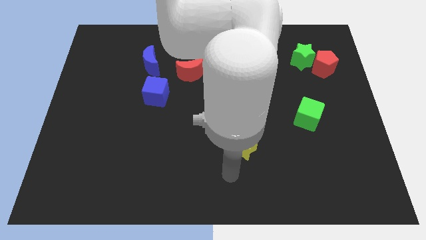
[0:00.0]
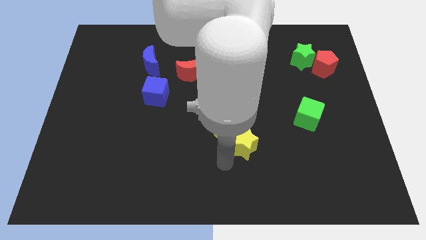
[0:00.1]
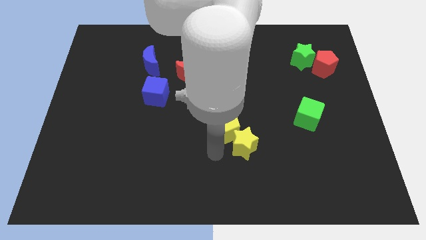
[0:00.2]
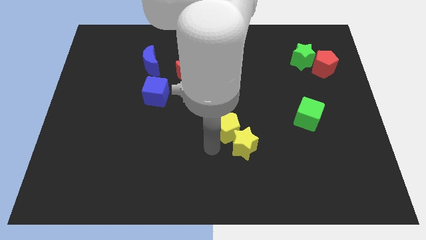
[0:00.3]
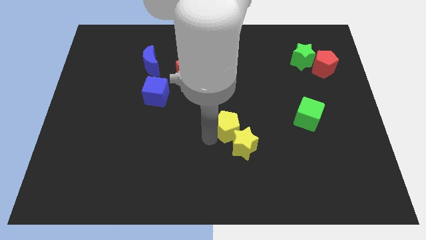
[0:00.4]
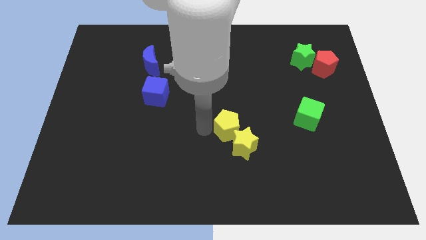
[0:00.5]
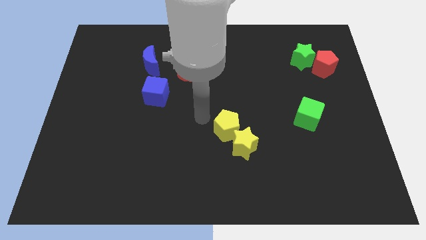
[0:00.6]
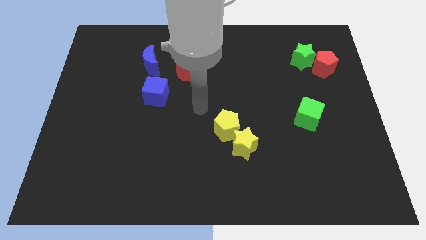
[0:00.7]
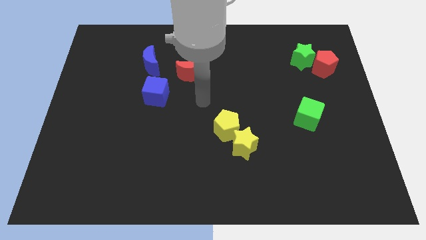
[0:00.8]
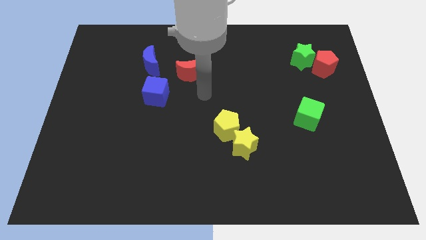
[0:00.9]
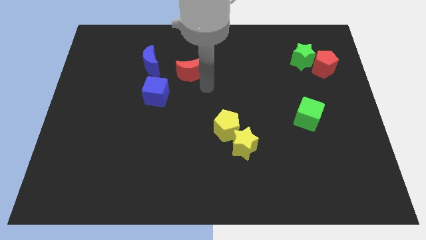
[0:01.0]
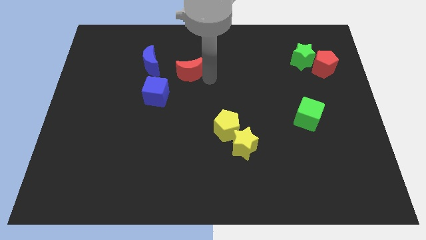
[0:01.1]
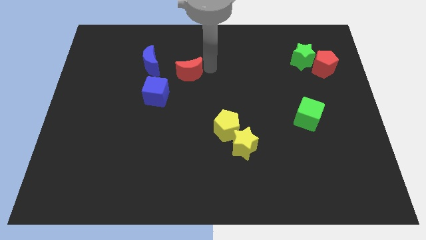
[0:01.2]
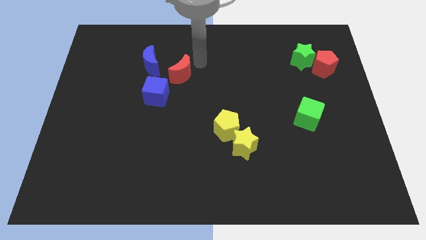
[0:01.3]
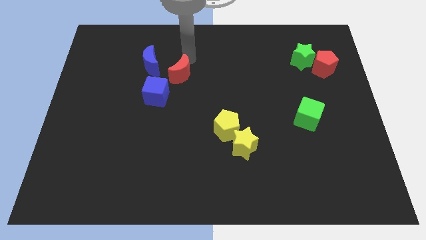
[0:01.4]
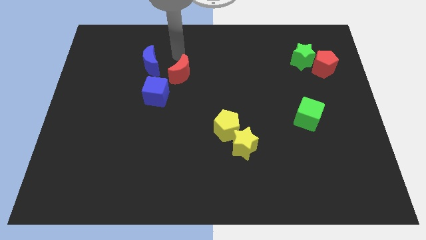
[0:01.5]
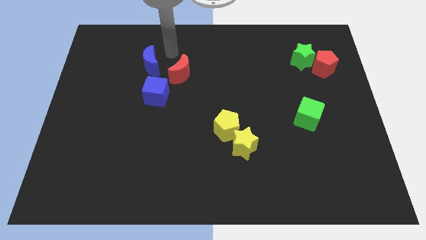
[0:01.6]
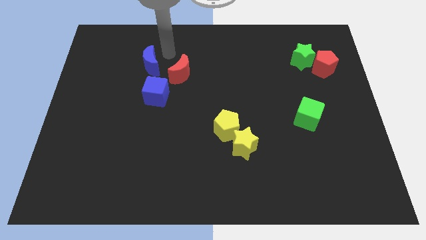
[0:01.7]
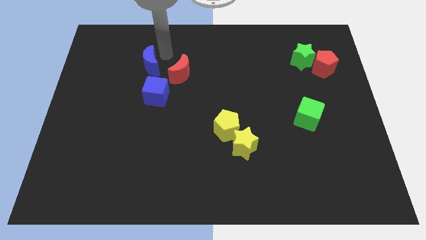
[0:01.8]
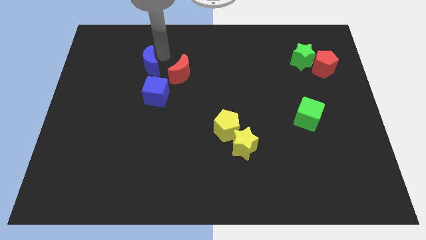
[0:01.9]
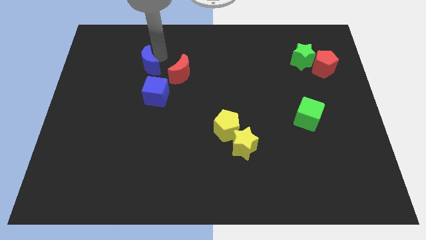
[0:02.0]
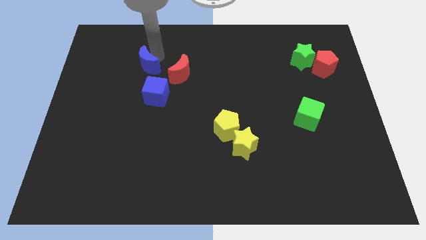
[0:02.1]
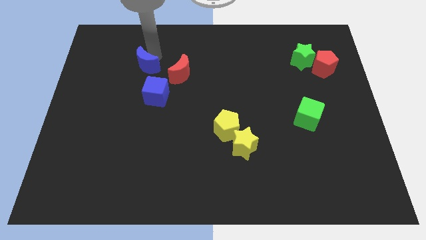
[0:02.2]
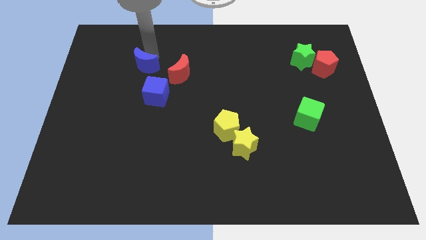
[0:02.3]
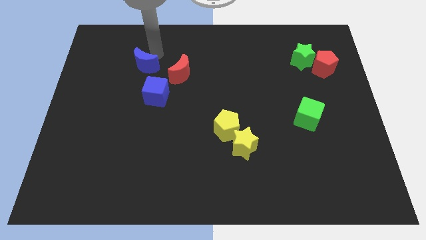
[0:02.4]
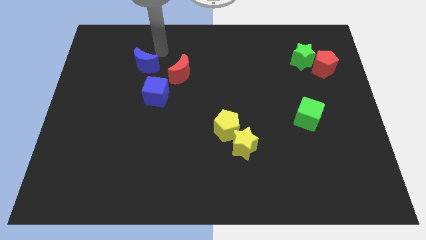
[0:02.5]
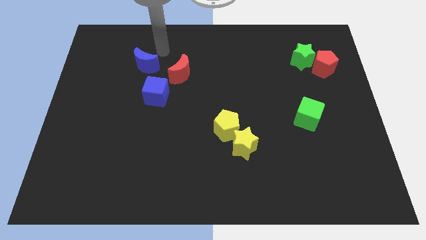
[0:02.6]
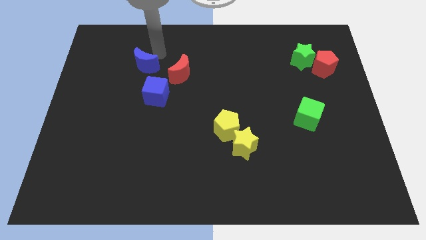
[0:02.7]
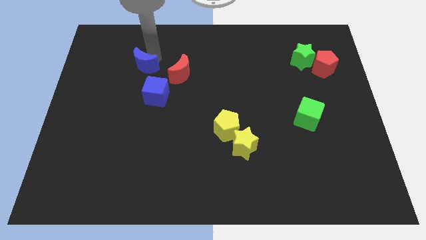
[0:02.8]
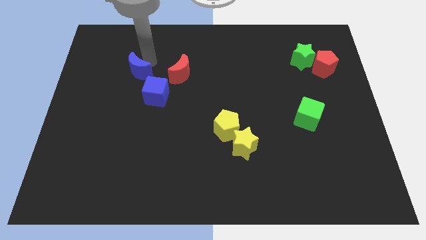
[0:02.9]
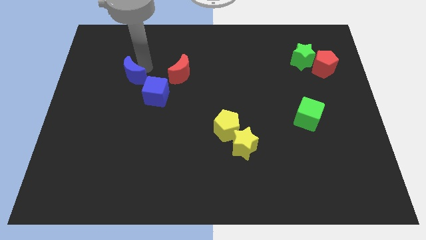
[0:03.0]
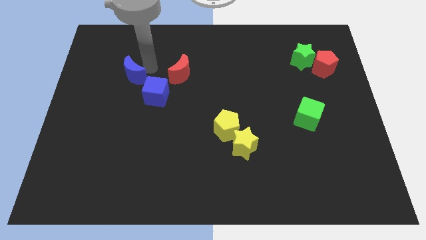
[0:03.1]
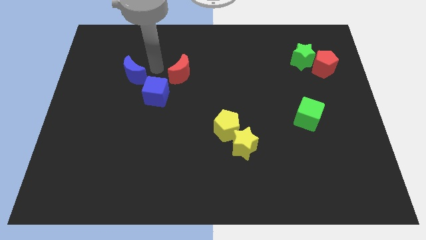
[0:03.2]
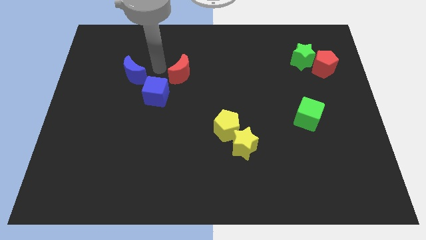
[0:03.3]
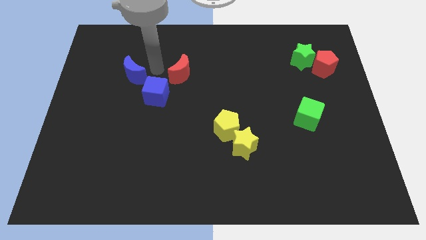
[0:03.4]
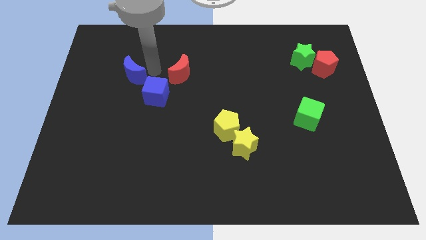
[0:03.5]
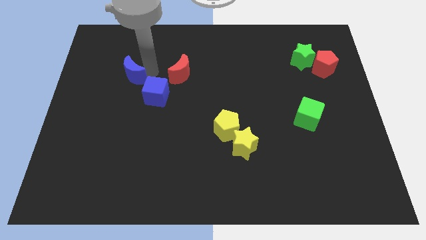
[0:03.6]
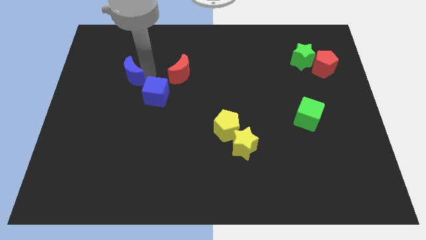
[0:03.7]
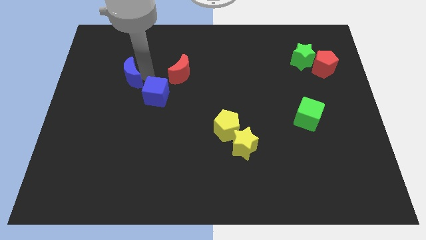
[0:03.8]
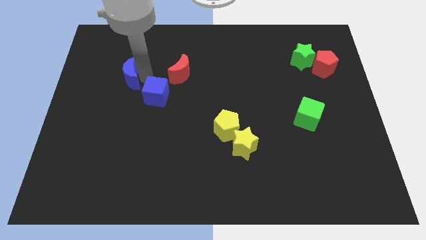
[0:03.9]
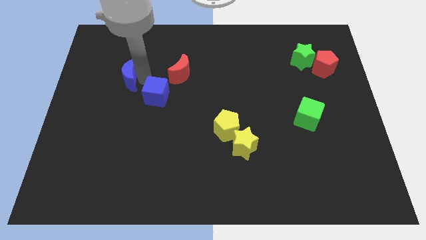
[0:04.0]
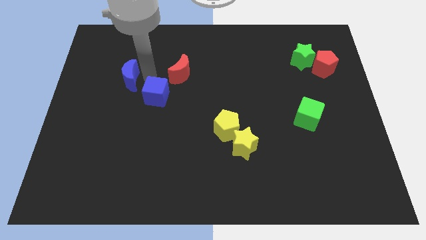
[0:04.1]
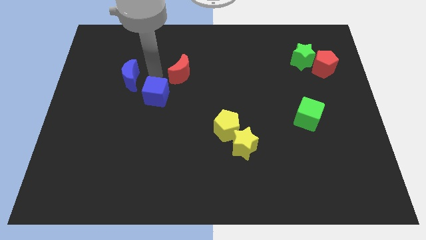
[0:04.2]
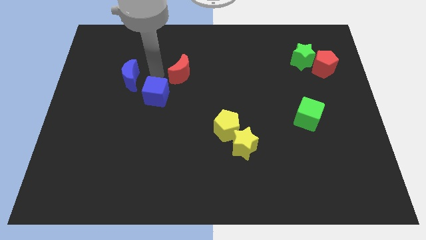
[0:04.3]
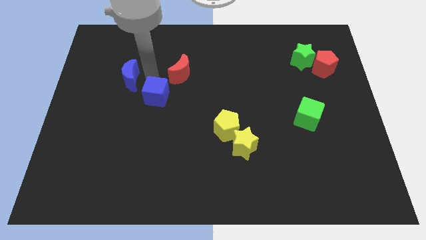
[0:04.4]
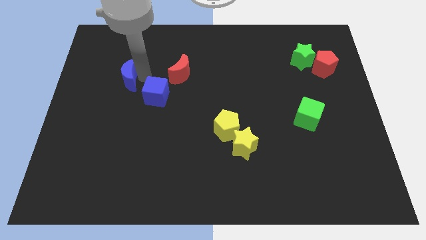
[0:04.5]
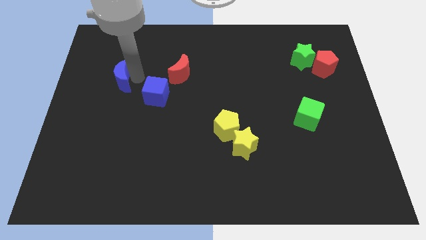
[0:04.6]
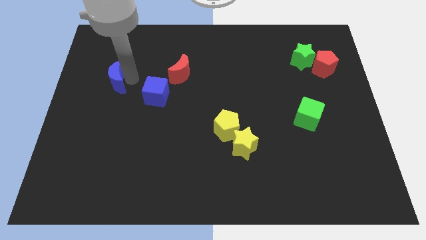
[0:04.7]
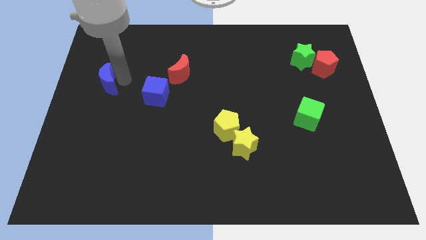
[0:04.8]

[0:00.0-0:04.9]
put the blue moon to the left side of the board

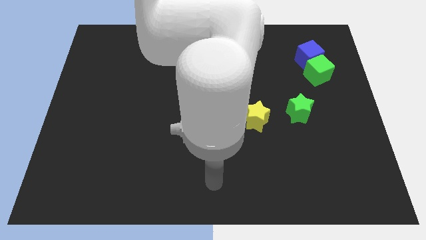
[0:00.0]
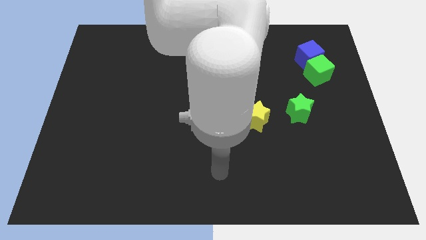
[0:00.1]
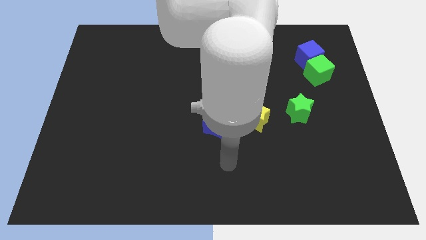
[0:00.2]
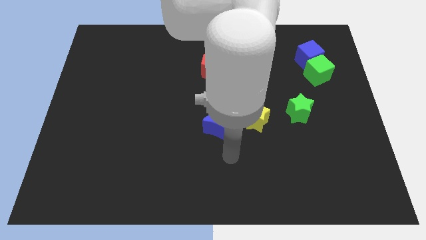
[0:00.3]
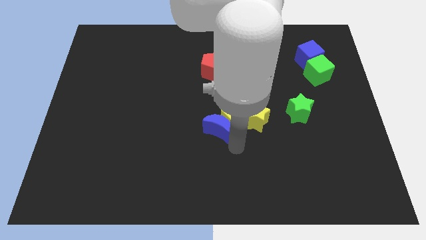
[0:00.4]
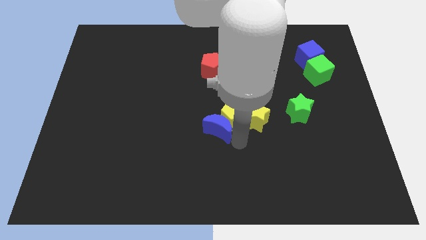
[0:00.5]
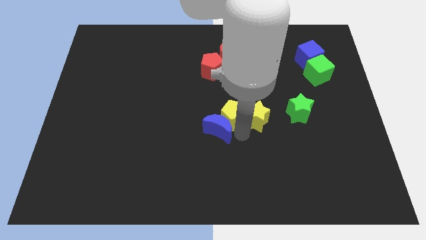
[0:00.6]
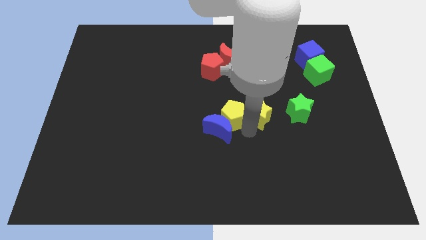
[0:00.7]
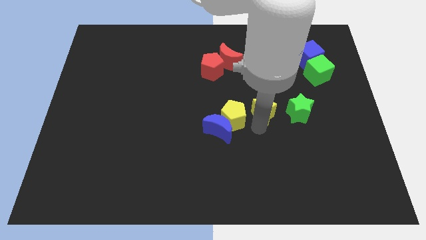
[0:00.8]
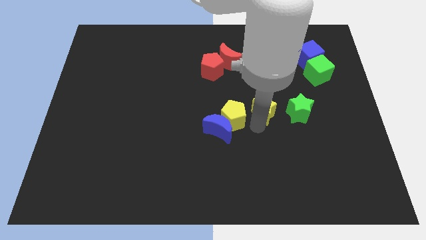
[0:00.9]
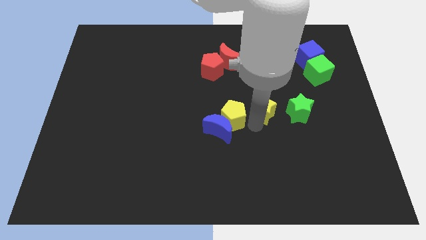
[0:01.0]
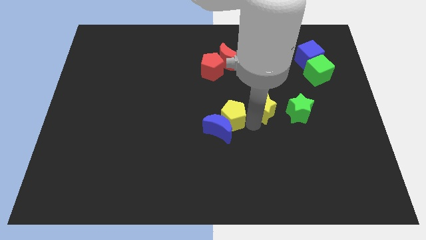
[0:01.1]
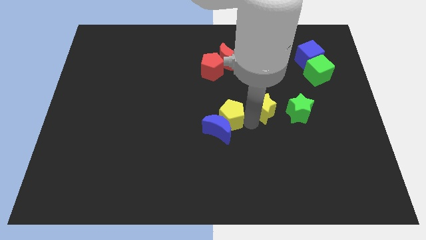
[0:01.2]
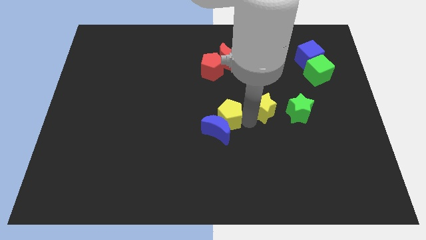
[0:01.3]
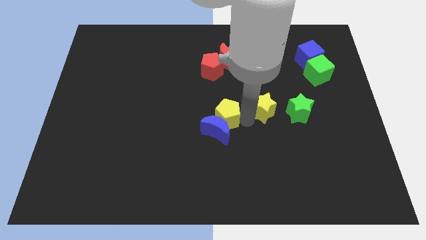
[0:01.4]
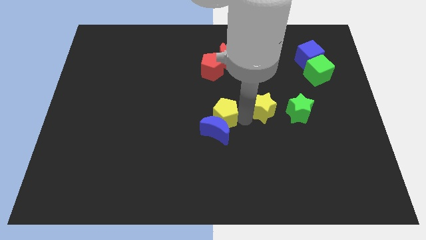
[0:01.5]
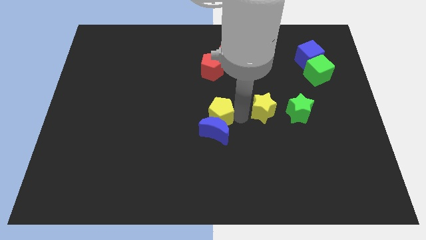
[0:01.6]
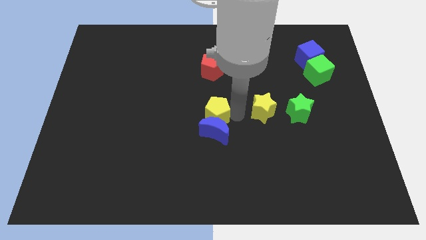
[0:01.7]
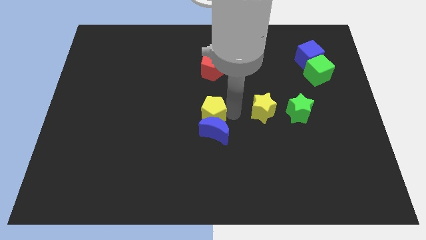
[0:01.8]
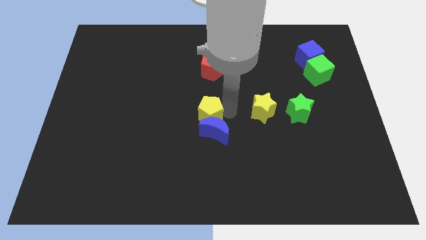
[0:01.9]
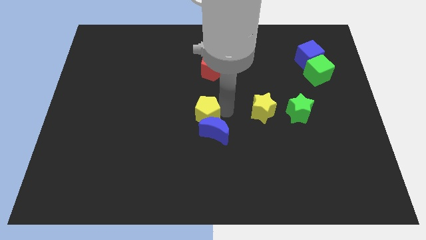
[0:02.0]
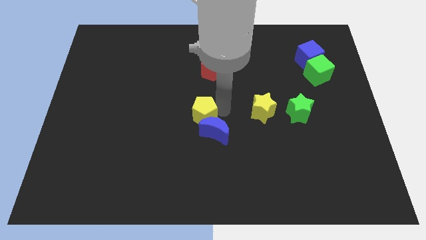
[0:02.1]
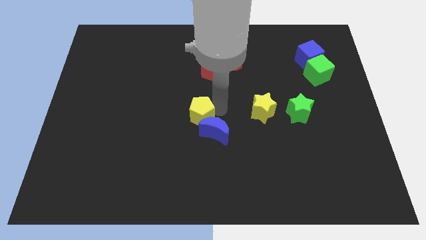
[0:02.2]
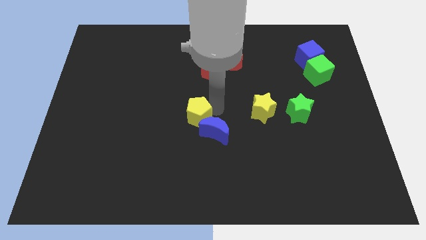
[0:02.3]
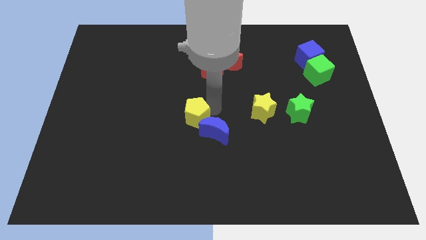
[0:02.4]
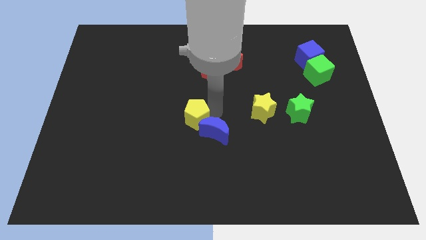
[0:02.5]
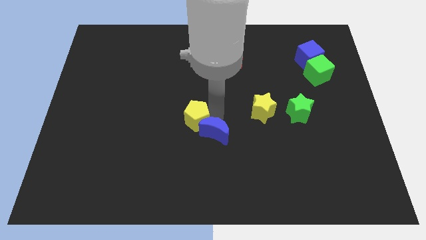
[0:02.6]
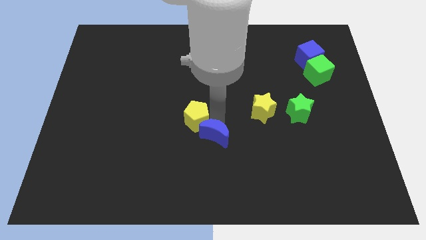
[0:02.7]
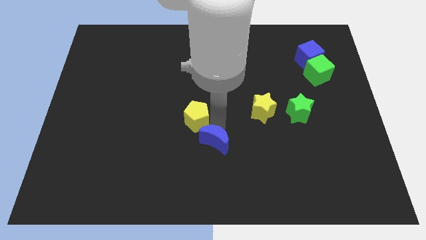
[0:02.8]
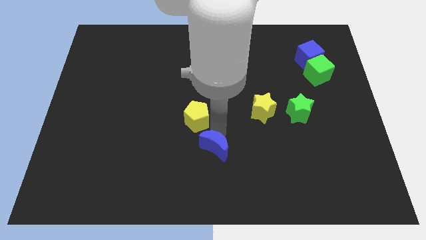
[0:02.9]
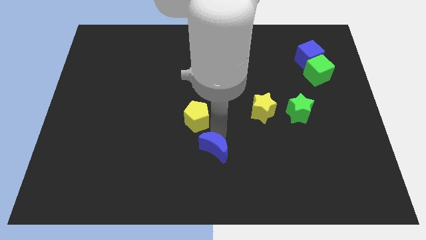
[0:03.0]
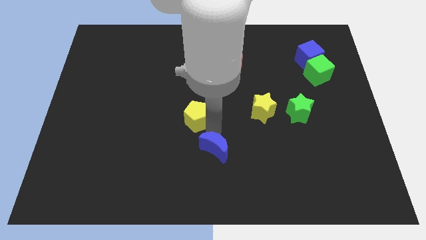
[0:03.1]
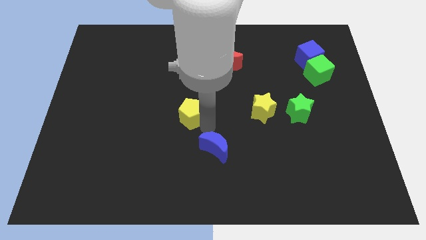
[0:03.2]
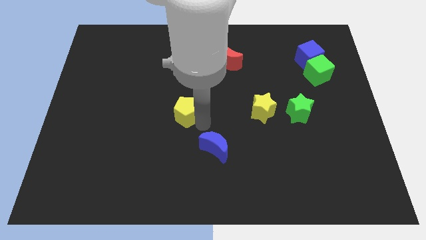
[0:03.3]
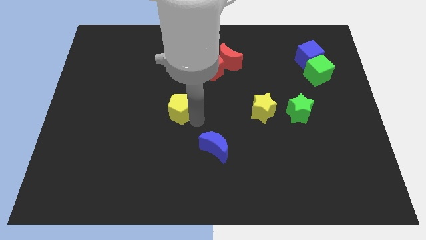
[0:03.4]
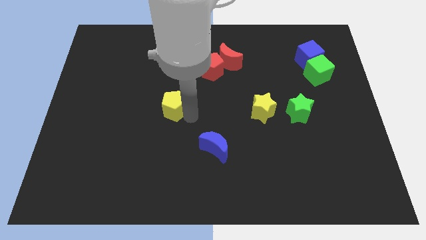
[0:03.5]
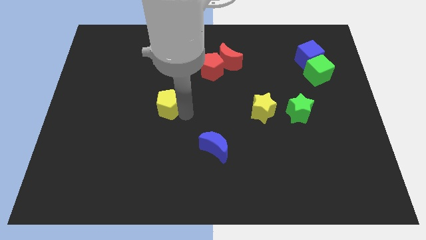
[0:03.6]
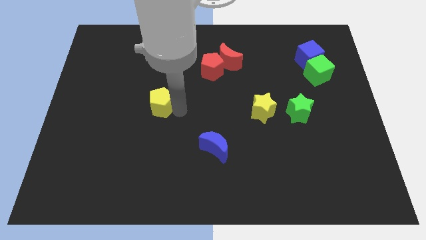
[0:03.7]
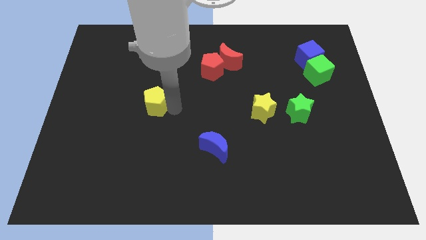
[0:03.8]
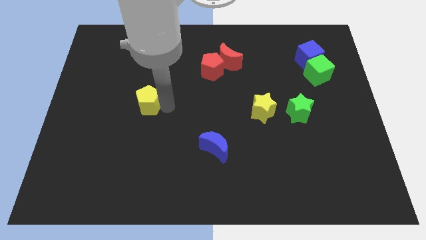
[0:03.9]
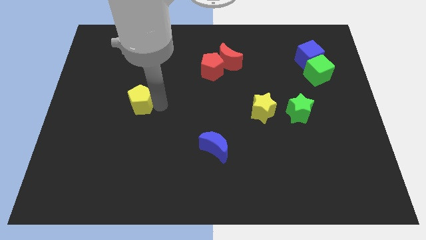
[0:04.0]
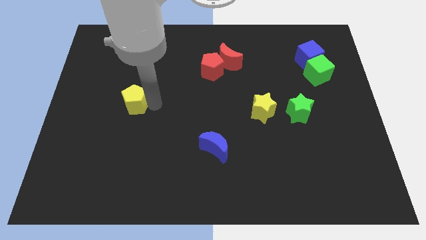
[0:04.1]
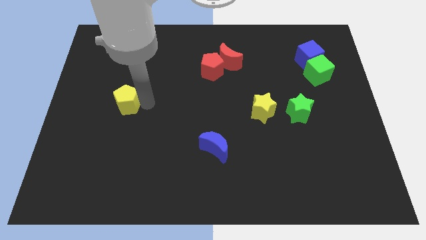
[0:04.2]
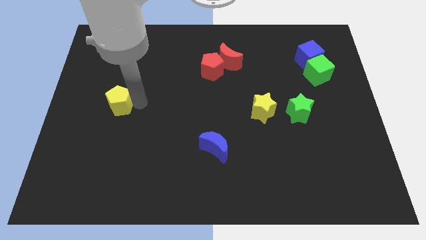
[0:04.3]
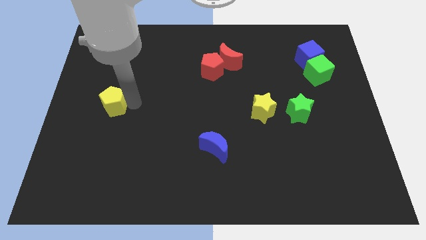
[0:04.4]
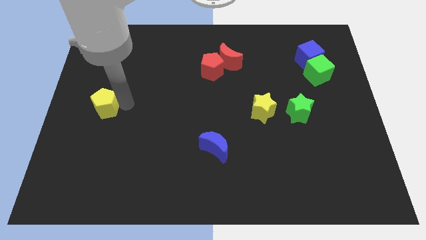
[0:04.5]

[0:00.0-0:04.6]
put the yellow pentagon to the center left
